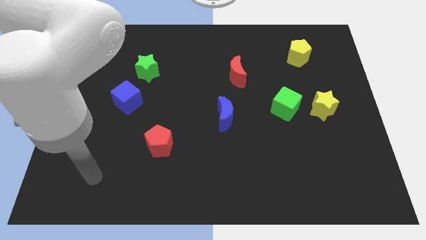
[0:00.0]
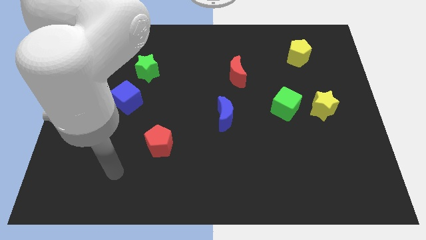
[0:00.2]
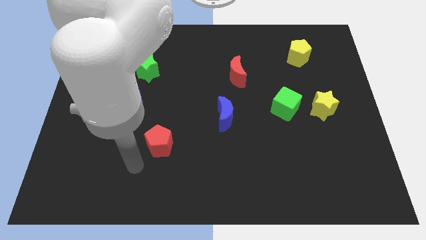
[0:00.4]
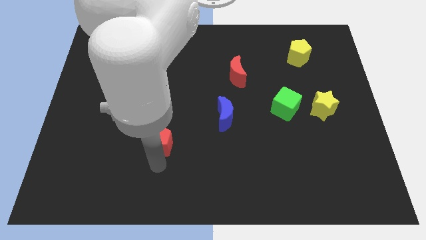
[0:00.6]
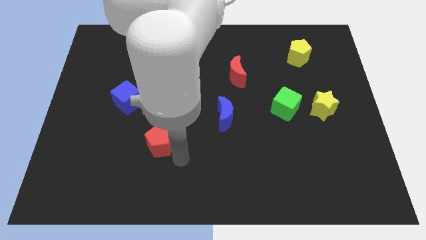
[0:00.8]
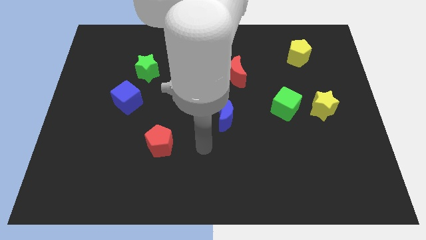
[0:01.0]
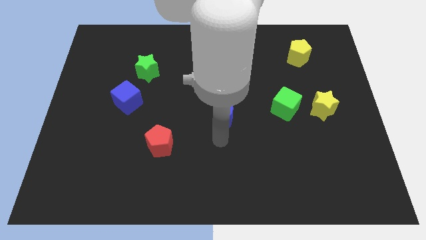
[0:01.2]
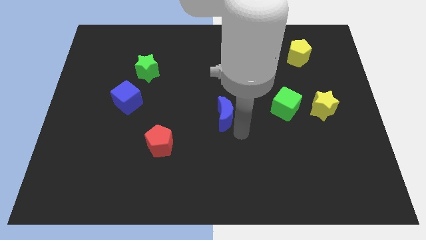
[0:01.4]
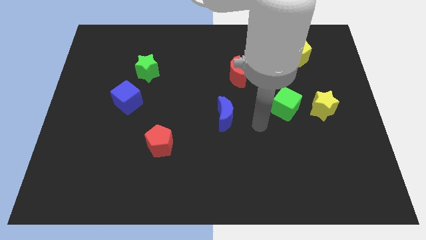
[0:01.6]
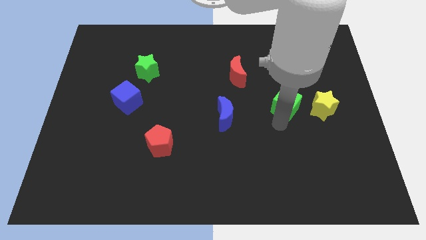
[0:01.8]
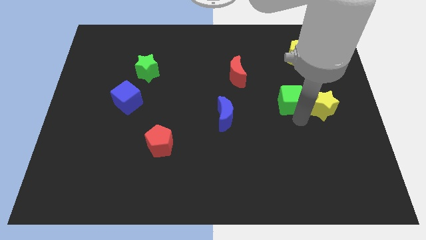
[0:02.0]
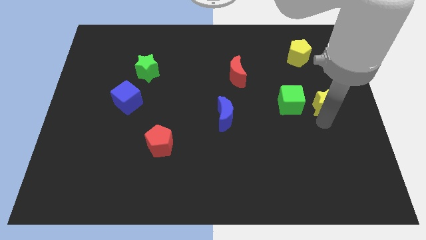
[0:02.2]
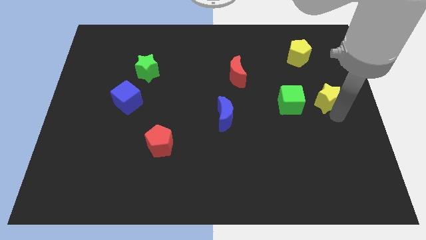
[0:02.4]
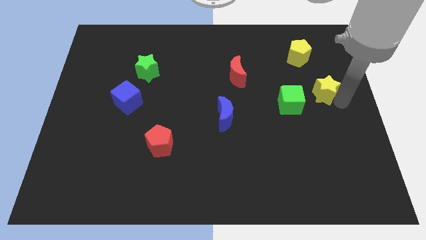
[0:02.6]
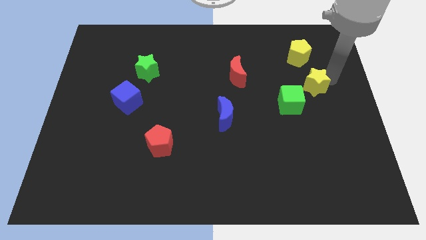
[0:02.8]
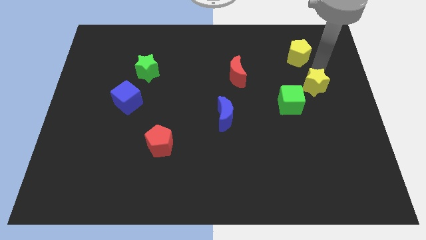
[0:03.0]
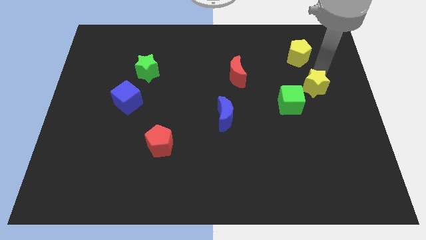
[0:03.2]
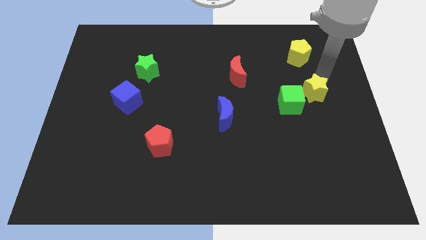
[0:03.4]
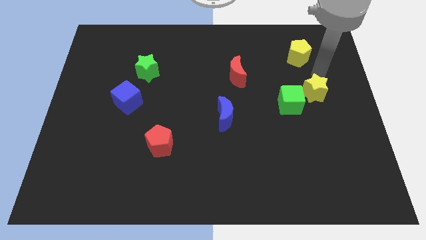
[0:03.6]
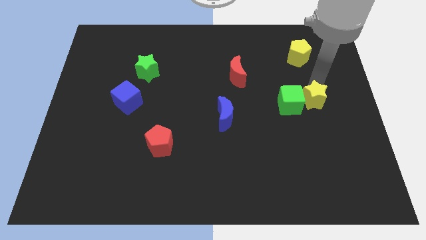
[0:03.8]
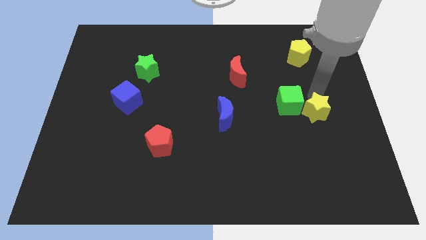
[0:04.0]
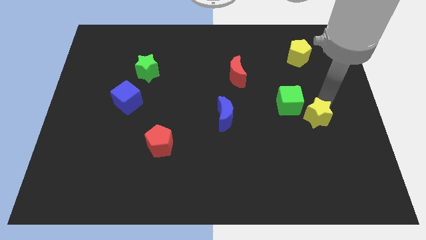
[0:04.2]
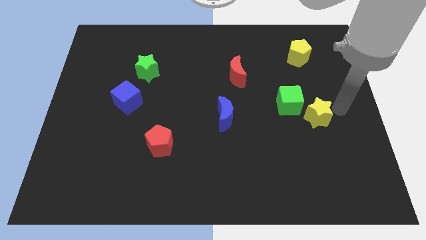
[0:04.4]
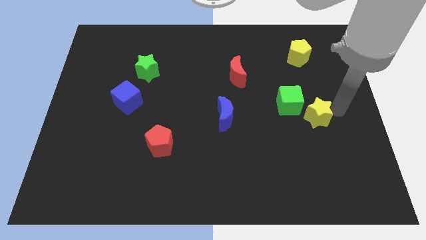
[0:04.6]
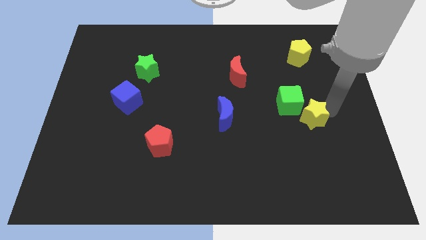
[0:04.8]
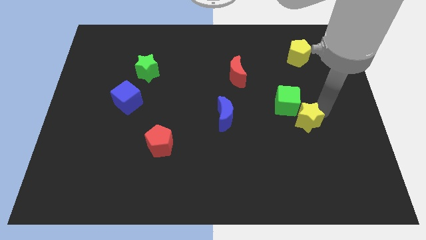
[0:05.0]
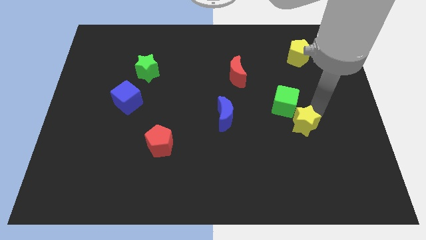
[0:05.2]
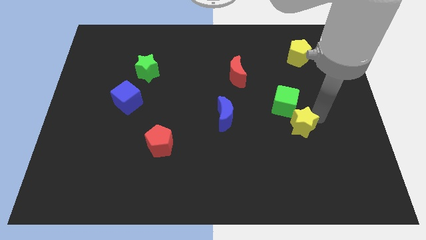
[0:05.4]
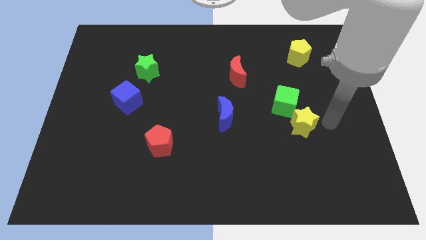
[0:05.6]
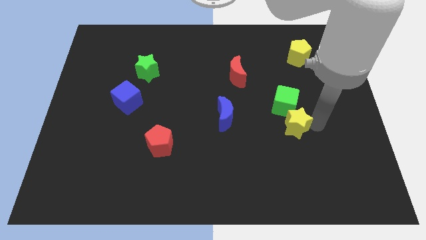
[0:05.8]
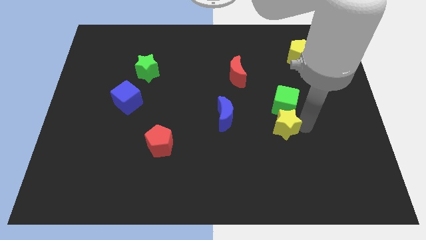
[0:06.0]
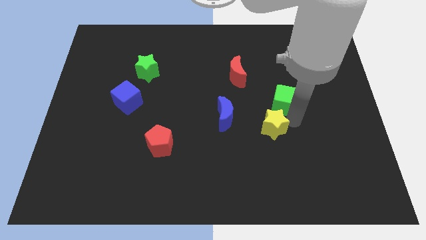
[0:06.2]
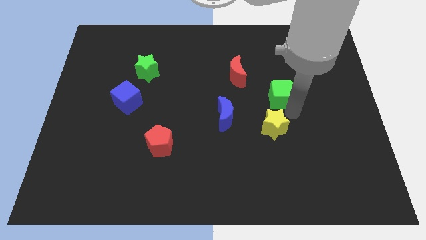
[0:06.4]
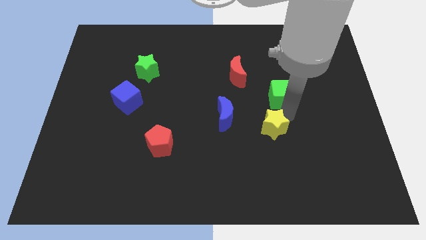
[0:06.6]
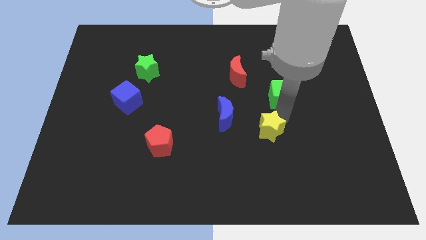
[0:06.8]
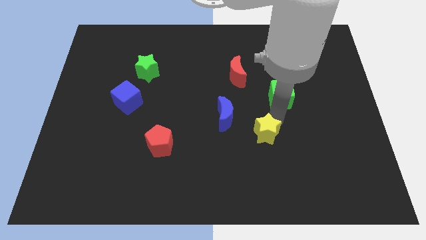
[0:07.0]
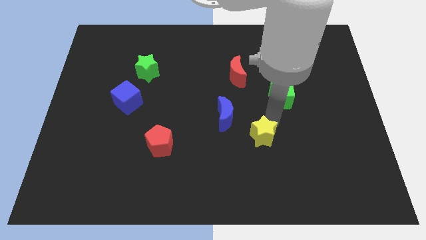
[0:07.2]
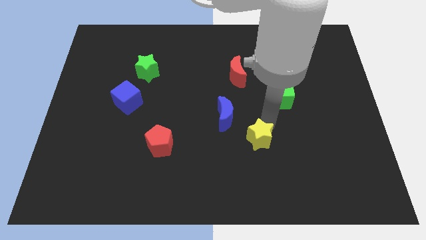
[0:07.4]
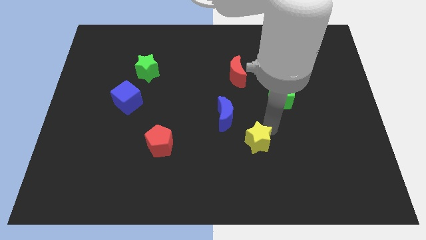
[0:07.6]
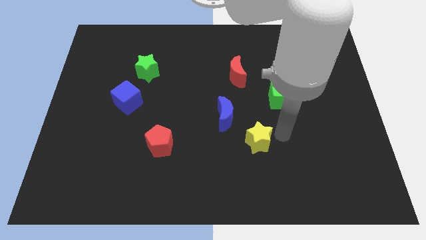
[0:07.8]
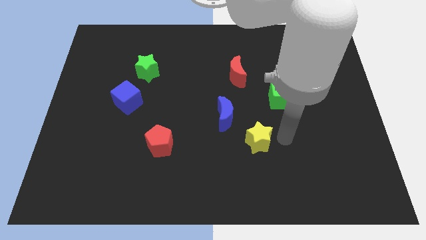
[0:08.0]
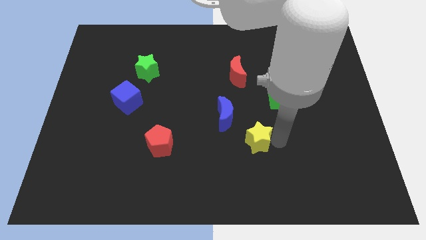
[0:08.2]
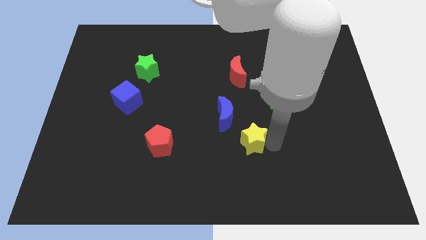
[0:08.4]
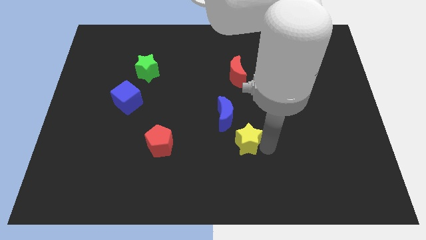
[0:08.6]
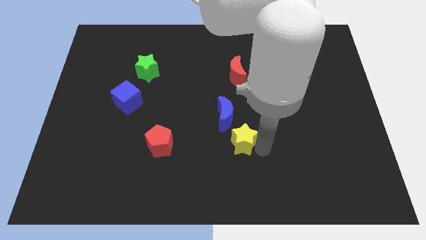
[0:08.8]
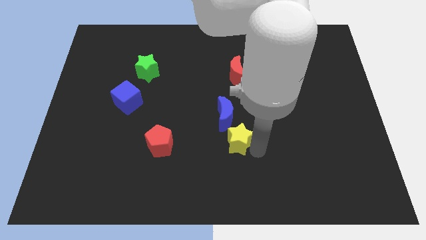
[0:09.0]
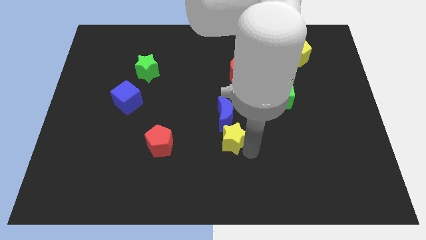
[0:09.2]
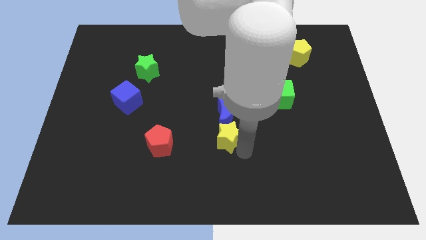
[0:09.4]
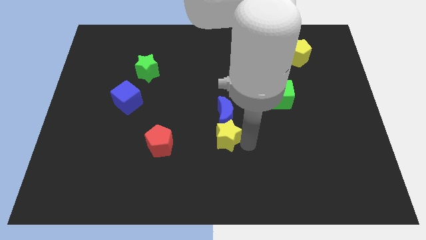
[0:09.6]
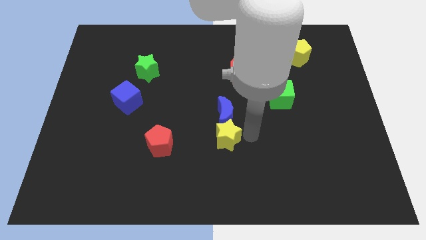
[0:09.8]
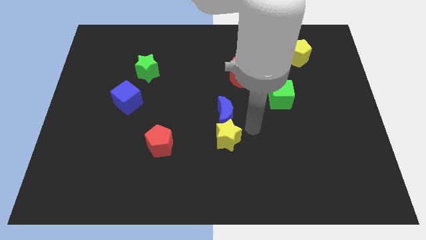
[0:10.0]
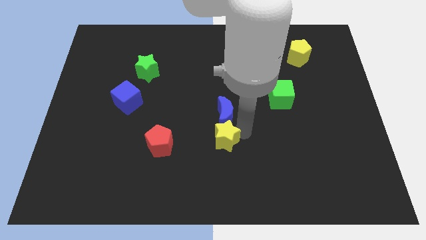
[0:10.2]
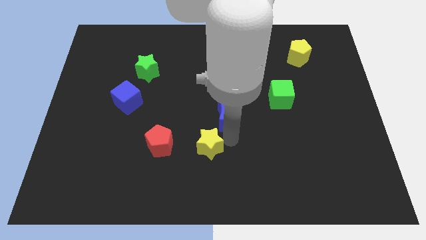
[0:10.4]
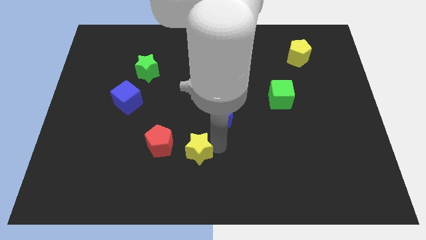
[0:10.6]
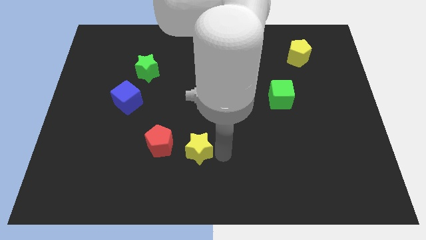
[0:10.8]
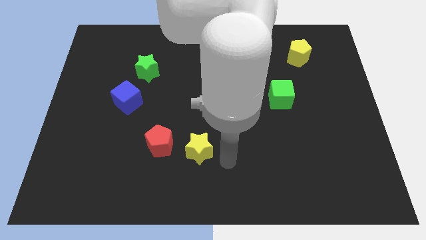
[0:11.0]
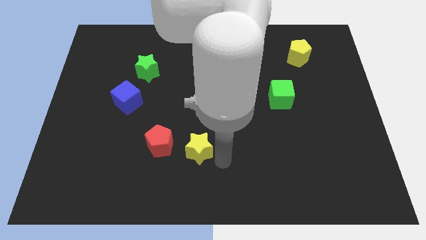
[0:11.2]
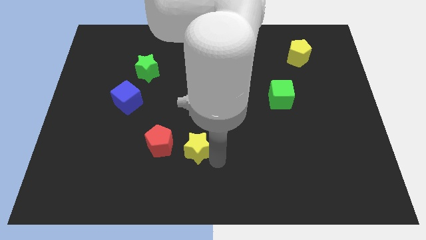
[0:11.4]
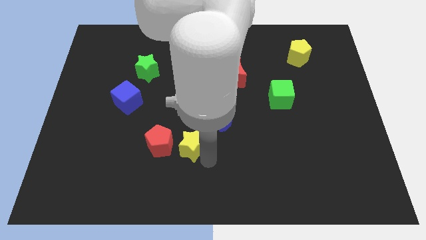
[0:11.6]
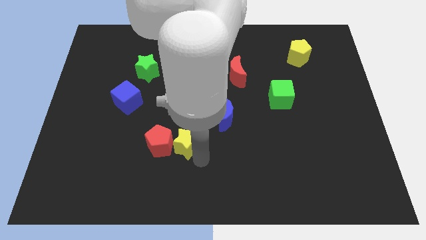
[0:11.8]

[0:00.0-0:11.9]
move the yellow star towards the red pentagon

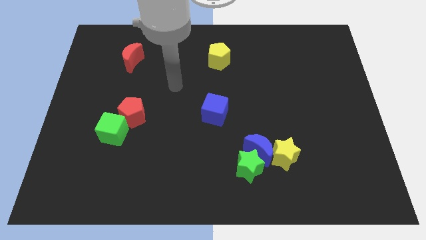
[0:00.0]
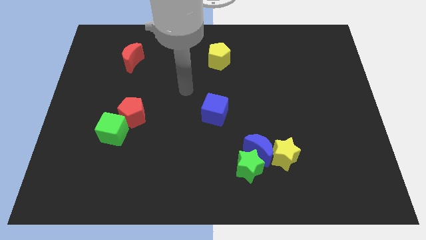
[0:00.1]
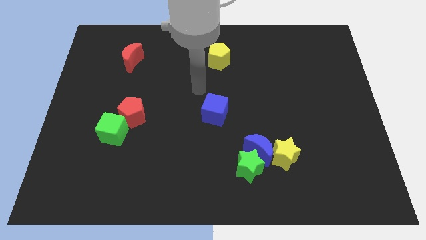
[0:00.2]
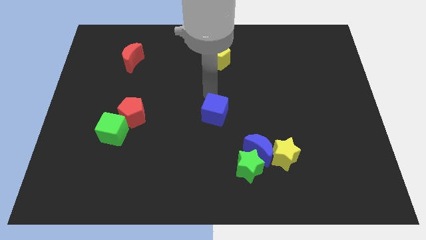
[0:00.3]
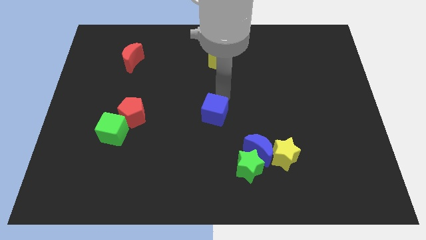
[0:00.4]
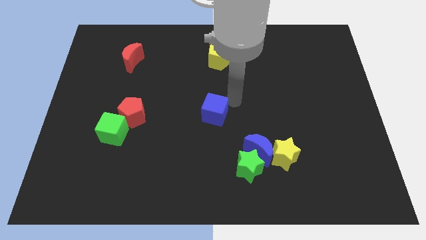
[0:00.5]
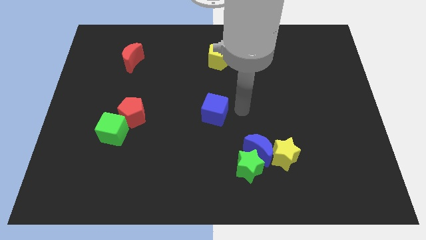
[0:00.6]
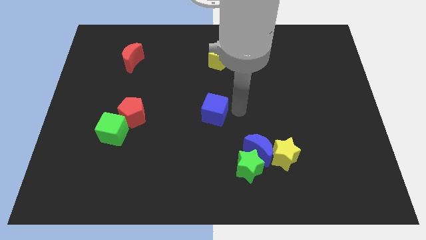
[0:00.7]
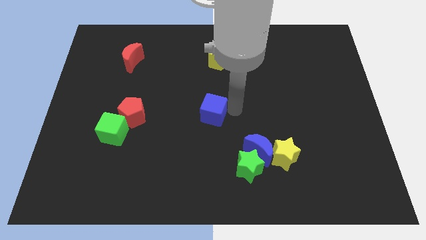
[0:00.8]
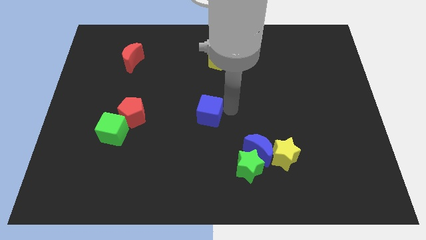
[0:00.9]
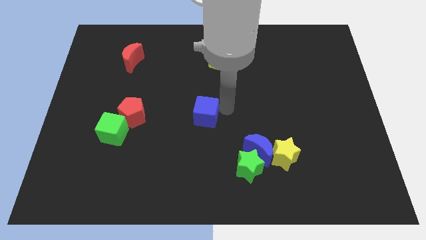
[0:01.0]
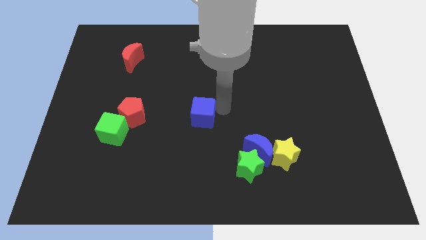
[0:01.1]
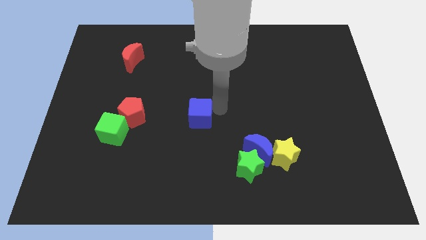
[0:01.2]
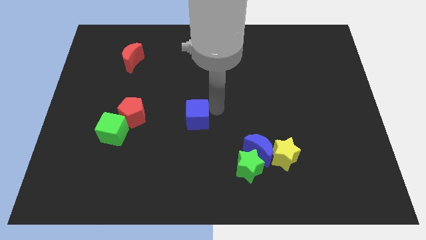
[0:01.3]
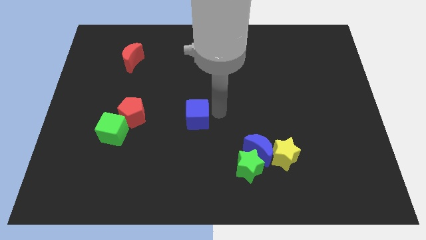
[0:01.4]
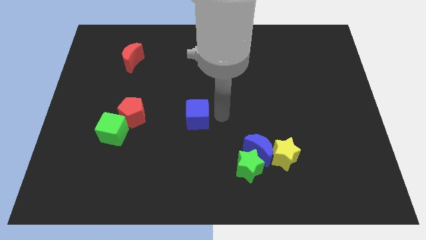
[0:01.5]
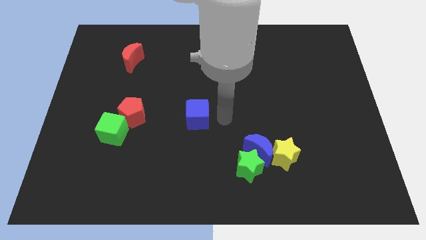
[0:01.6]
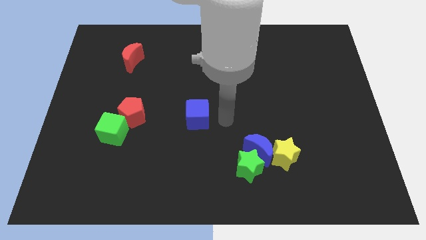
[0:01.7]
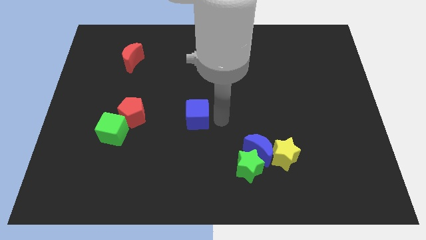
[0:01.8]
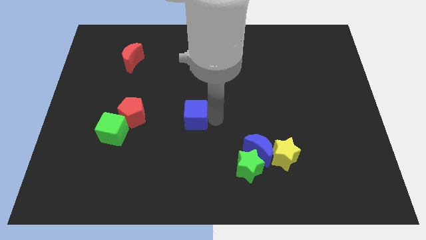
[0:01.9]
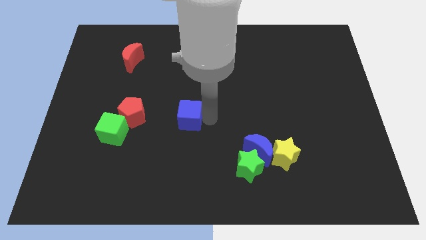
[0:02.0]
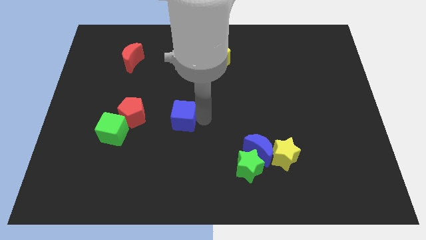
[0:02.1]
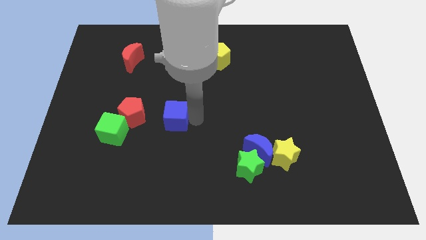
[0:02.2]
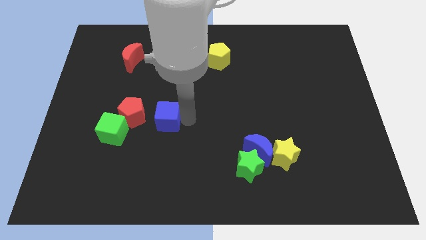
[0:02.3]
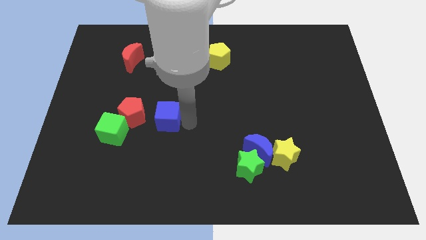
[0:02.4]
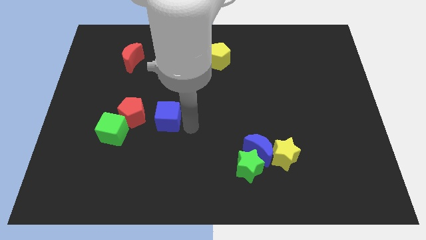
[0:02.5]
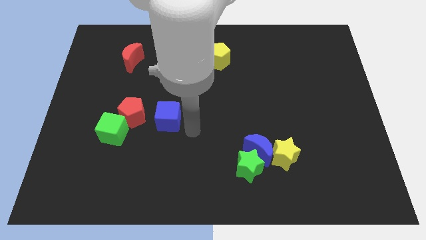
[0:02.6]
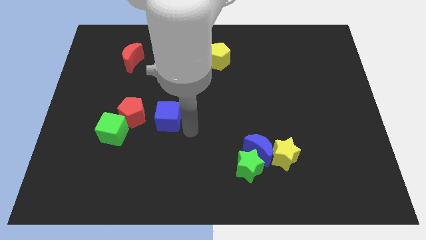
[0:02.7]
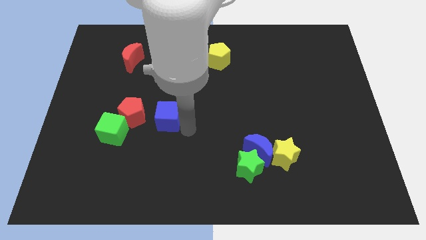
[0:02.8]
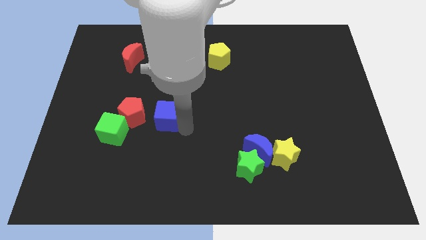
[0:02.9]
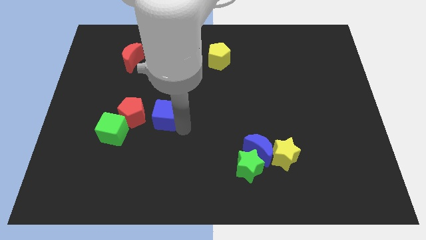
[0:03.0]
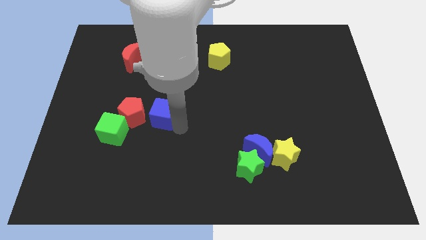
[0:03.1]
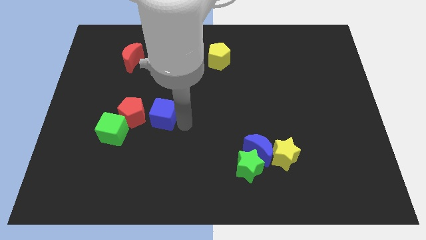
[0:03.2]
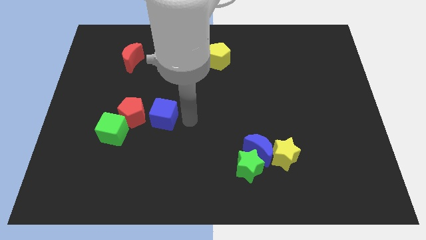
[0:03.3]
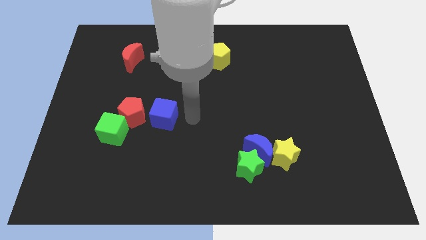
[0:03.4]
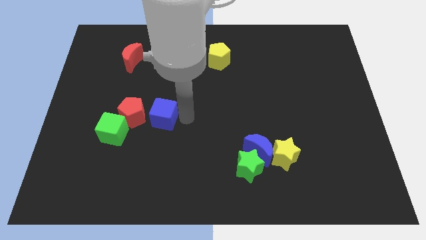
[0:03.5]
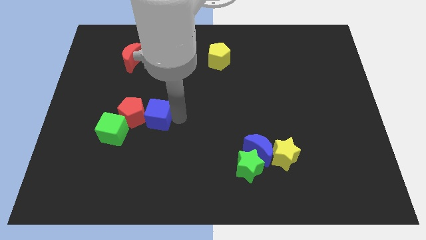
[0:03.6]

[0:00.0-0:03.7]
move the blue cube towards the red pentagon
